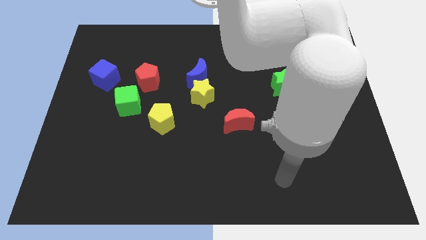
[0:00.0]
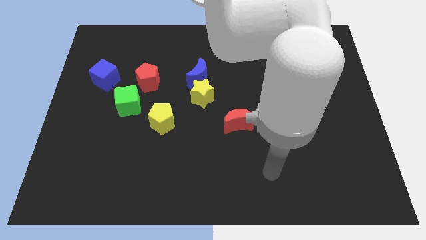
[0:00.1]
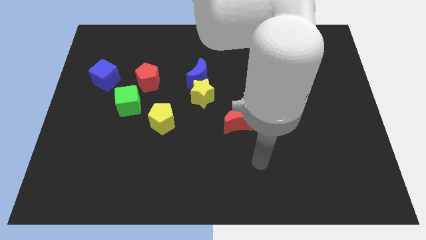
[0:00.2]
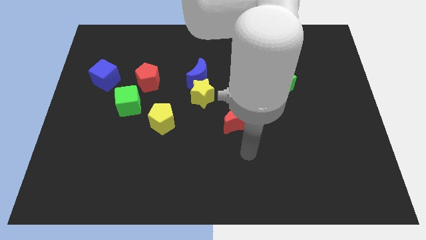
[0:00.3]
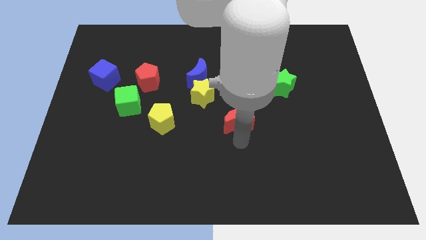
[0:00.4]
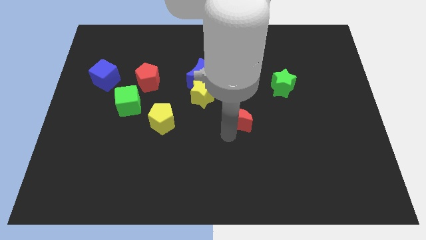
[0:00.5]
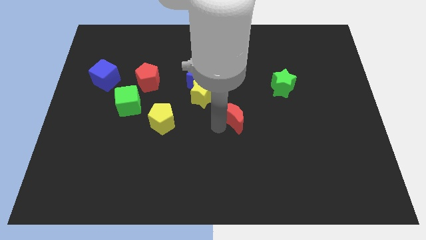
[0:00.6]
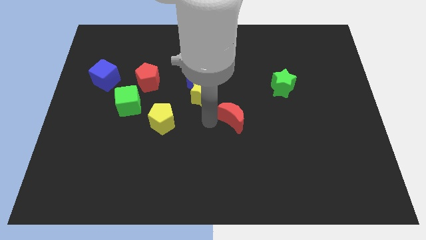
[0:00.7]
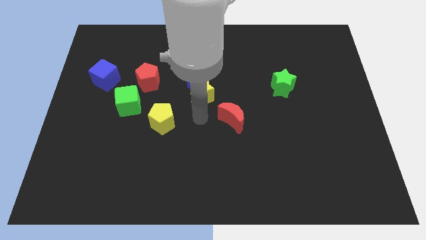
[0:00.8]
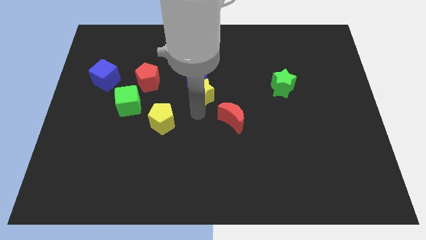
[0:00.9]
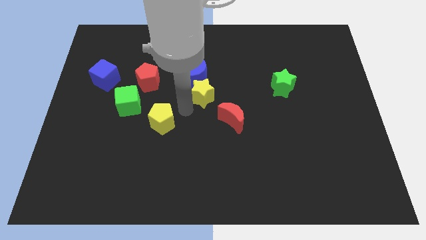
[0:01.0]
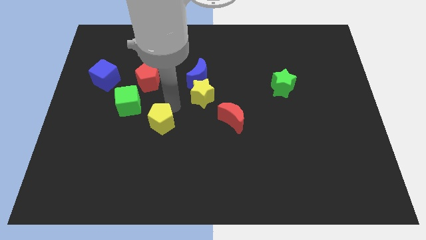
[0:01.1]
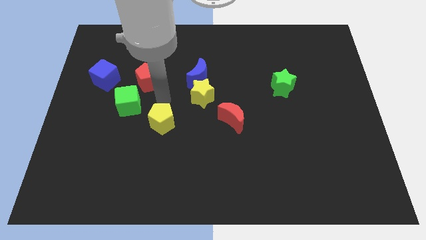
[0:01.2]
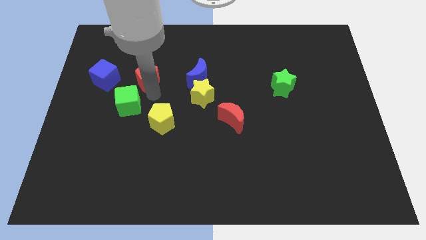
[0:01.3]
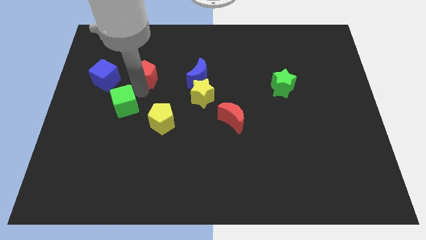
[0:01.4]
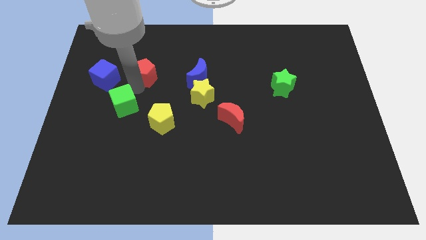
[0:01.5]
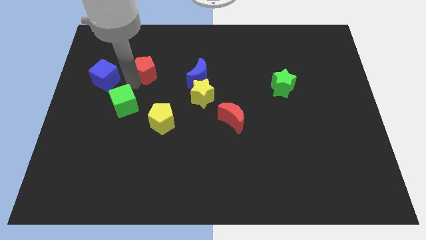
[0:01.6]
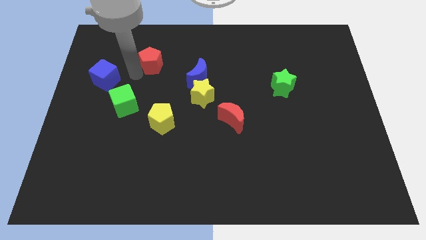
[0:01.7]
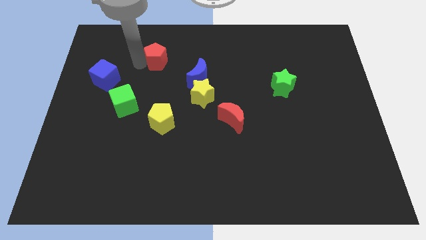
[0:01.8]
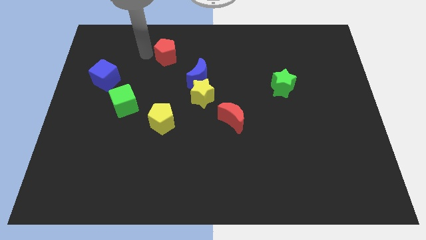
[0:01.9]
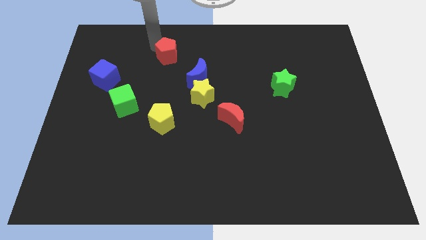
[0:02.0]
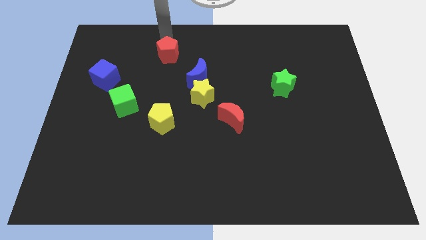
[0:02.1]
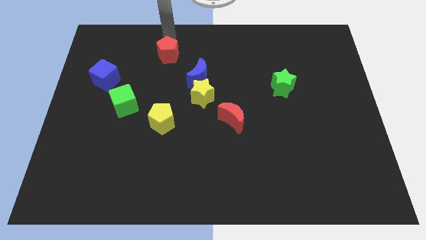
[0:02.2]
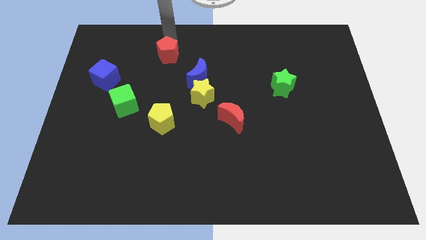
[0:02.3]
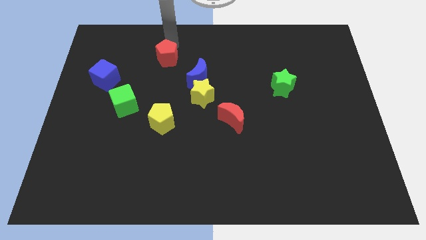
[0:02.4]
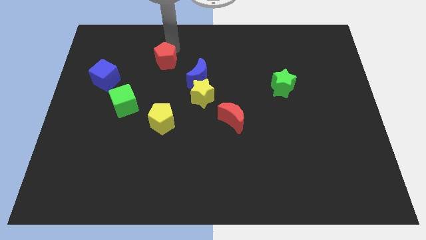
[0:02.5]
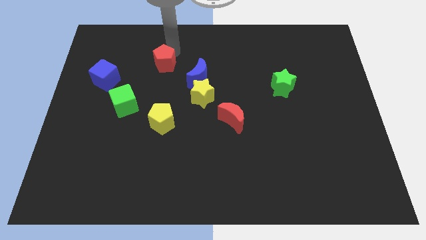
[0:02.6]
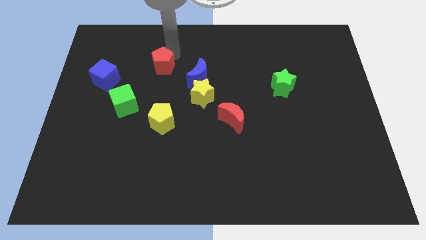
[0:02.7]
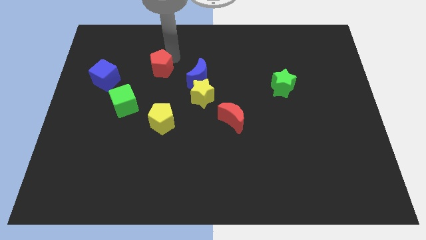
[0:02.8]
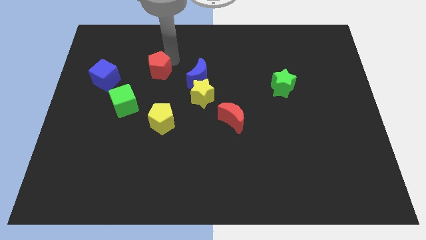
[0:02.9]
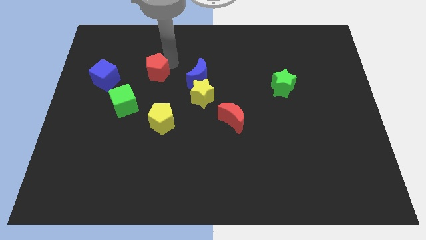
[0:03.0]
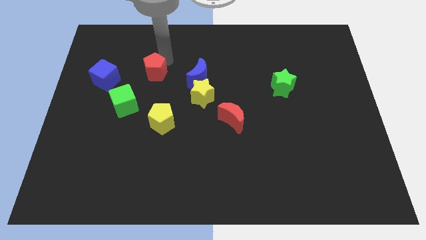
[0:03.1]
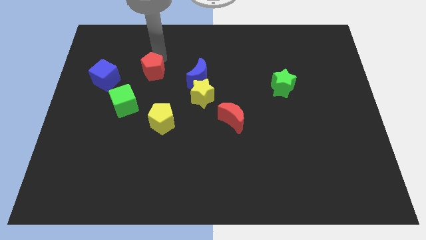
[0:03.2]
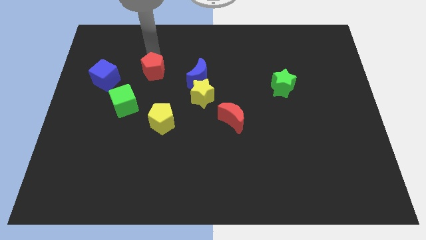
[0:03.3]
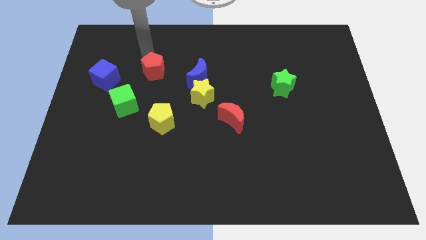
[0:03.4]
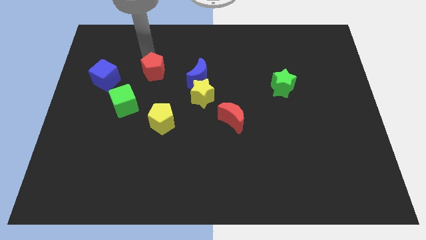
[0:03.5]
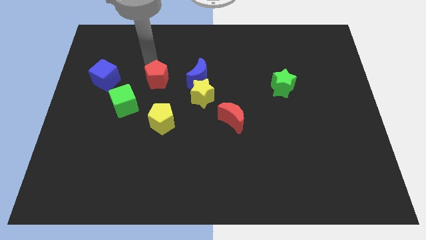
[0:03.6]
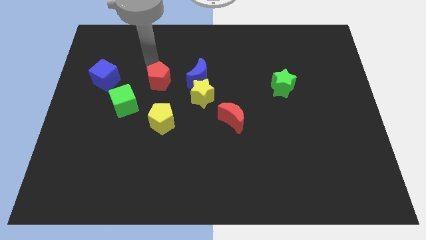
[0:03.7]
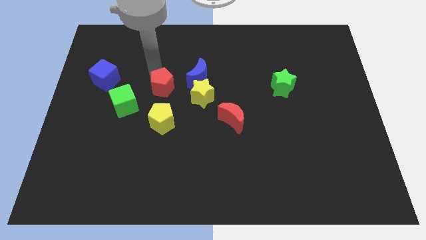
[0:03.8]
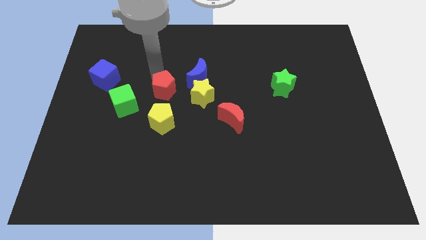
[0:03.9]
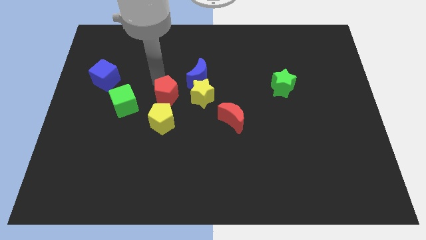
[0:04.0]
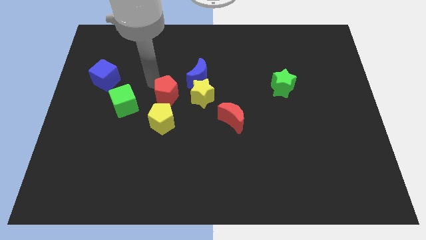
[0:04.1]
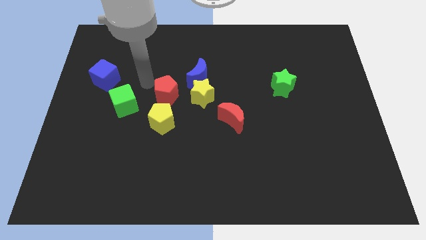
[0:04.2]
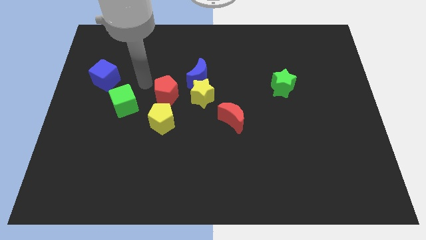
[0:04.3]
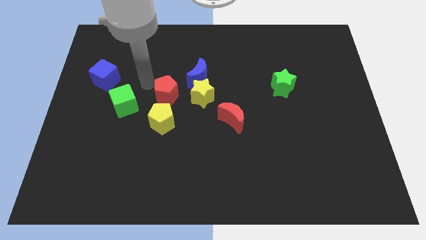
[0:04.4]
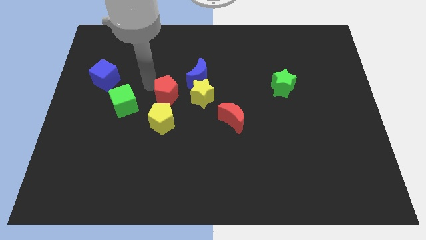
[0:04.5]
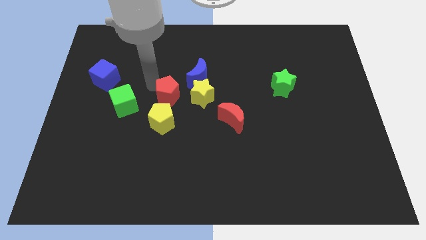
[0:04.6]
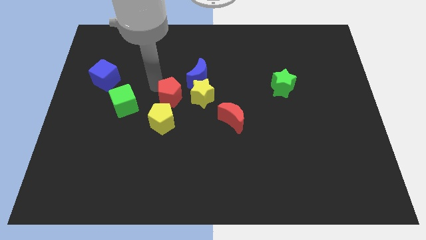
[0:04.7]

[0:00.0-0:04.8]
move the red pentagon to the top right side of the yellow pentagon

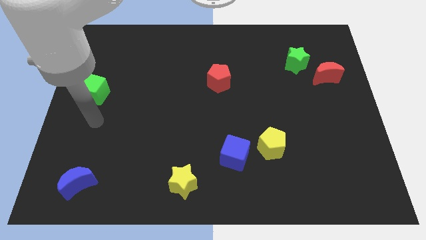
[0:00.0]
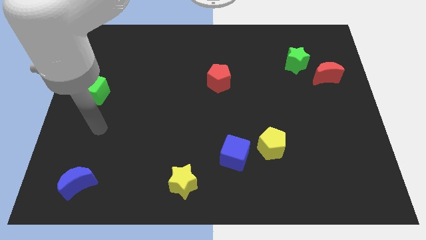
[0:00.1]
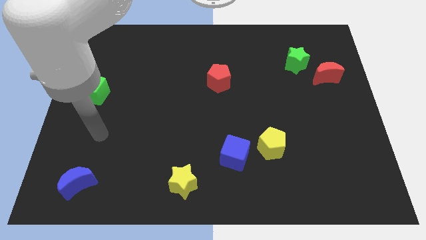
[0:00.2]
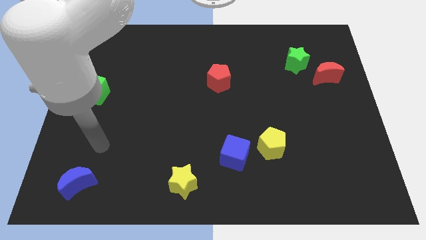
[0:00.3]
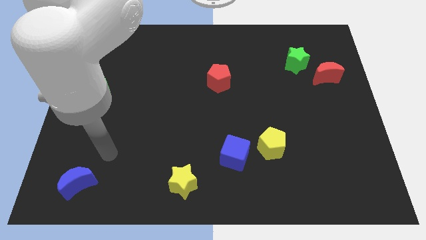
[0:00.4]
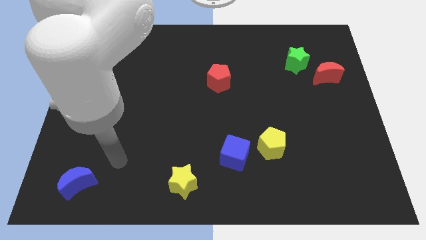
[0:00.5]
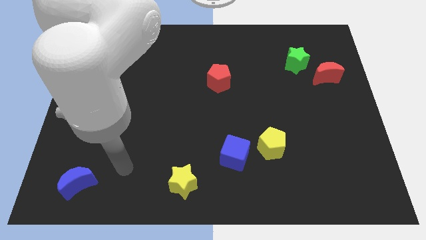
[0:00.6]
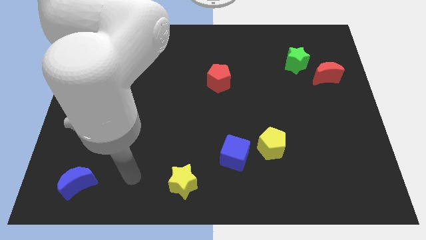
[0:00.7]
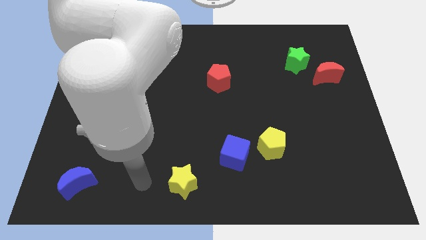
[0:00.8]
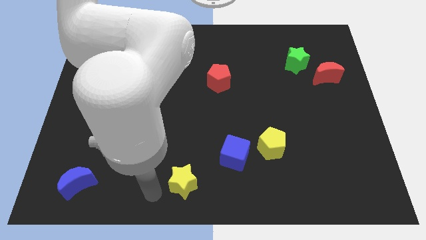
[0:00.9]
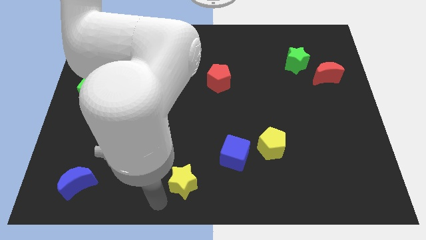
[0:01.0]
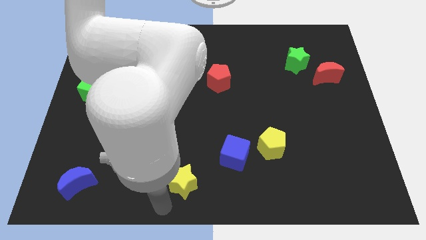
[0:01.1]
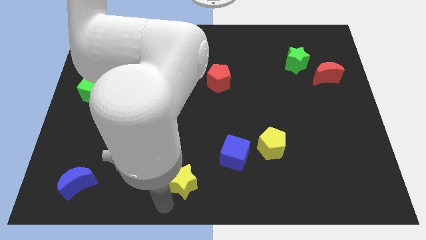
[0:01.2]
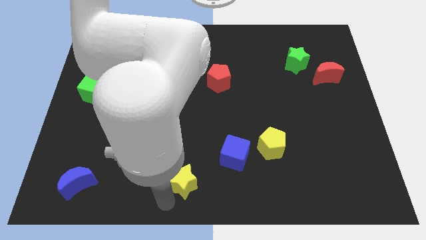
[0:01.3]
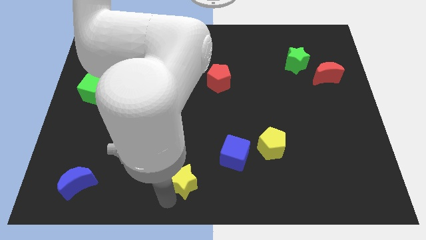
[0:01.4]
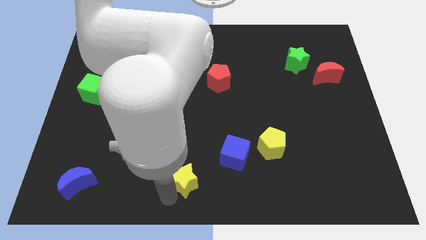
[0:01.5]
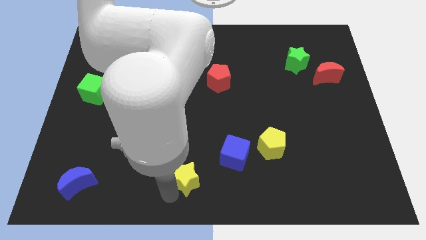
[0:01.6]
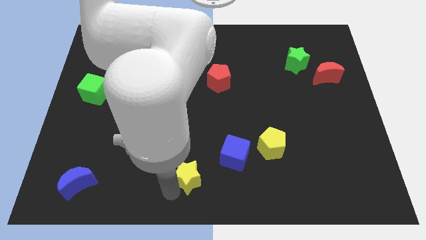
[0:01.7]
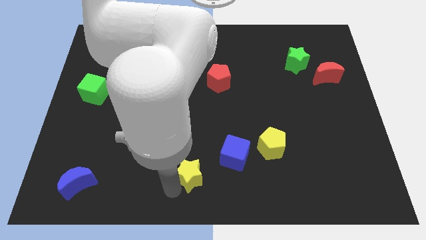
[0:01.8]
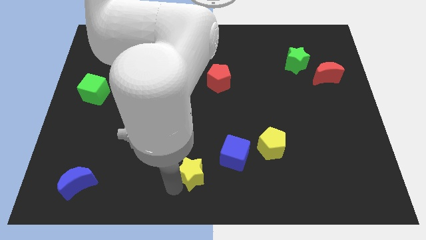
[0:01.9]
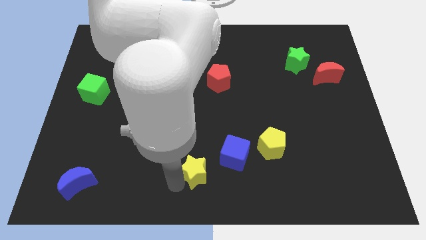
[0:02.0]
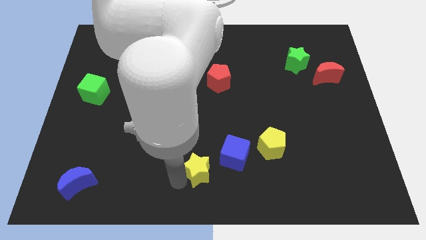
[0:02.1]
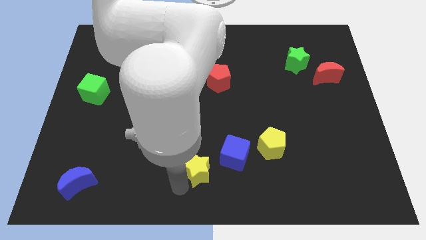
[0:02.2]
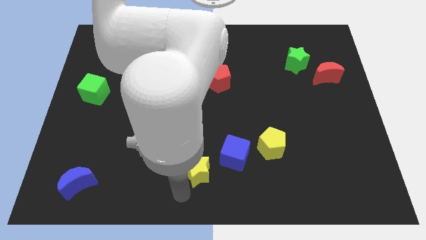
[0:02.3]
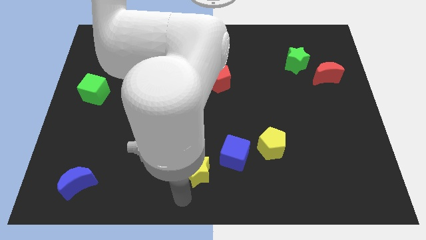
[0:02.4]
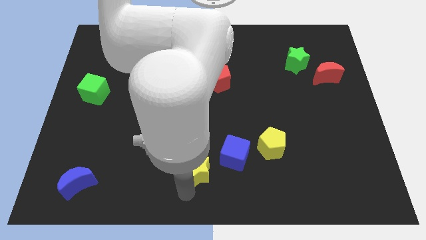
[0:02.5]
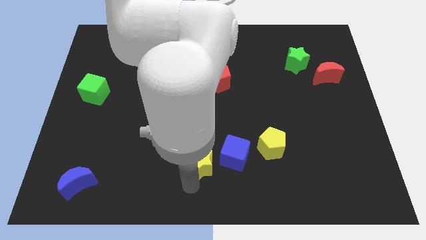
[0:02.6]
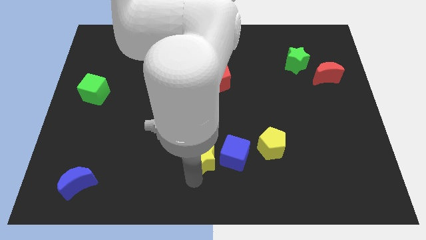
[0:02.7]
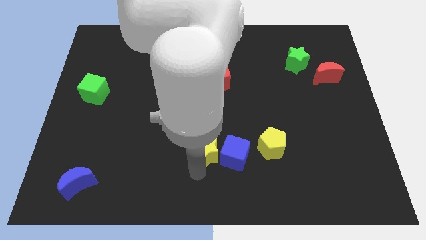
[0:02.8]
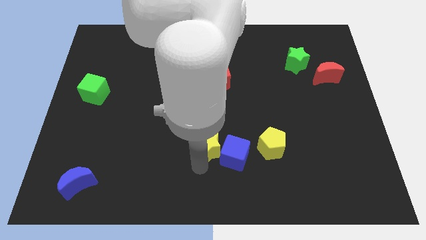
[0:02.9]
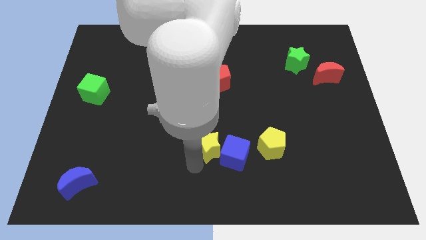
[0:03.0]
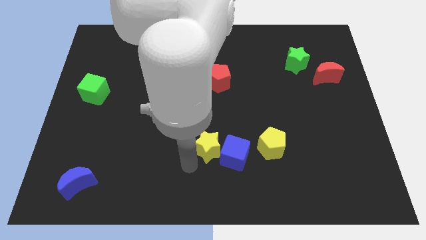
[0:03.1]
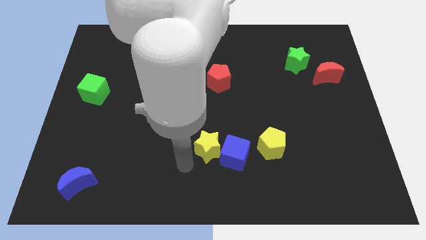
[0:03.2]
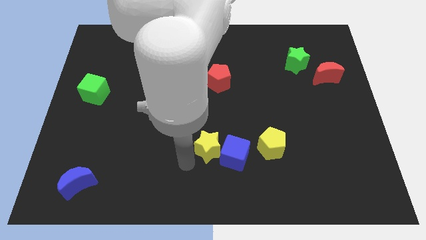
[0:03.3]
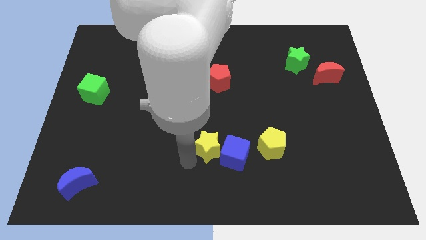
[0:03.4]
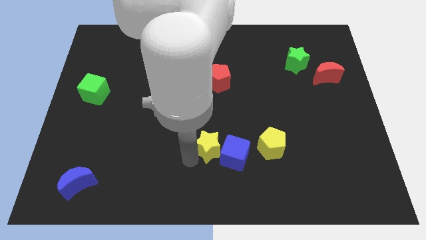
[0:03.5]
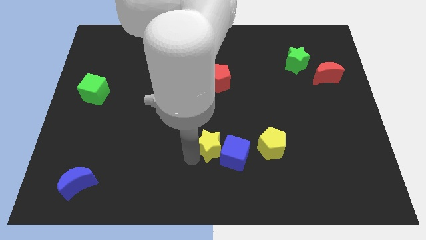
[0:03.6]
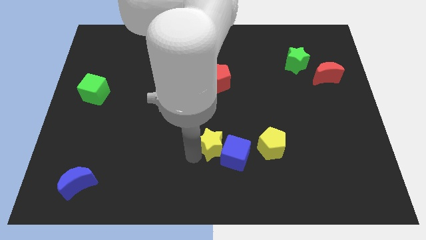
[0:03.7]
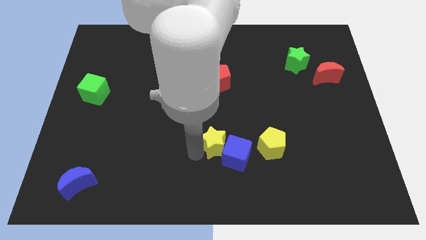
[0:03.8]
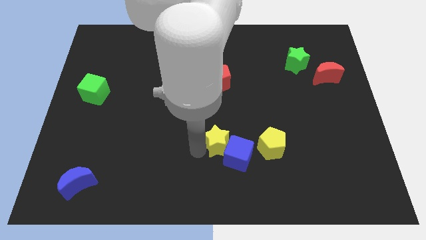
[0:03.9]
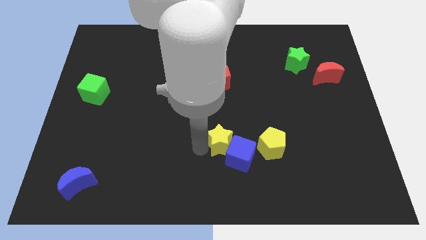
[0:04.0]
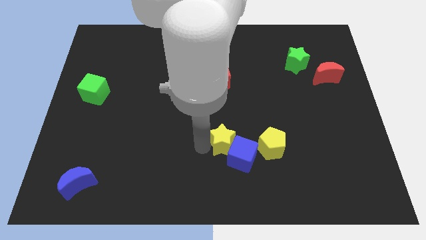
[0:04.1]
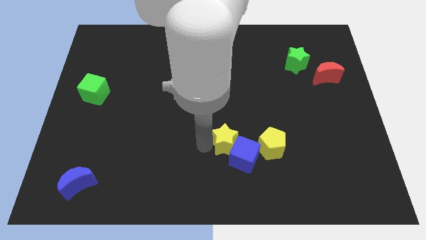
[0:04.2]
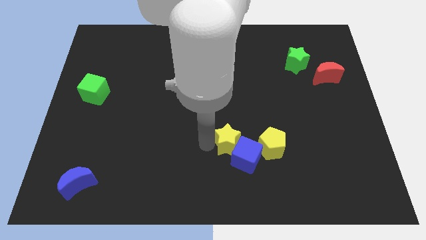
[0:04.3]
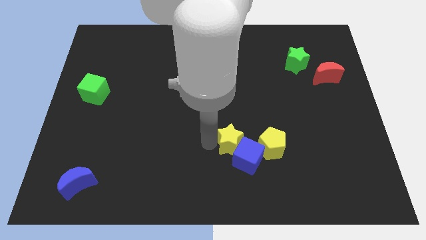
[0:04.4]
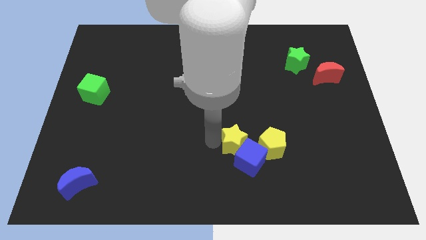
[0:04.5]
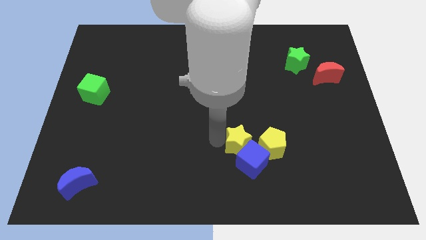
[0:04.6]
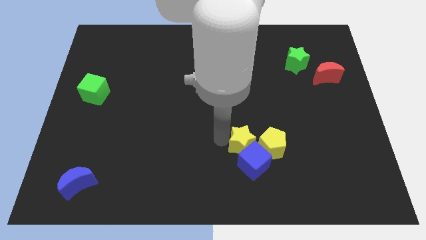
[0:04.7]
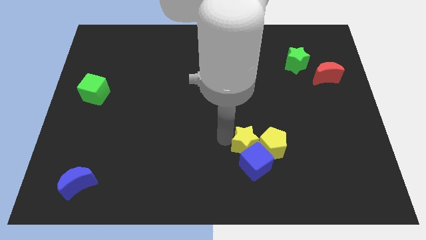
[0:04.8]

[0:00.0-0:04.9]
slide the yellow star diagonally up and to the right of the blue cube
